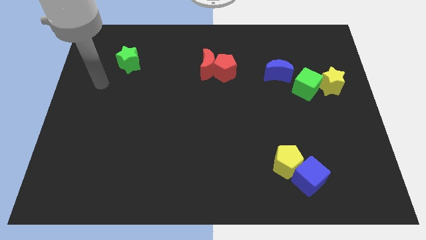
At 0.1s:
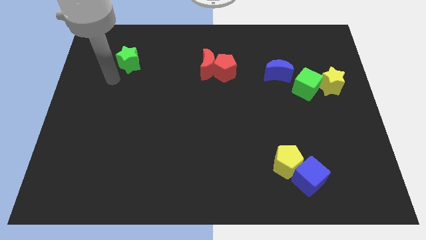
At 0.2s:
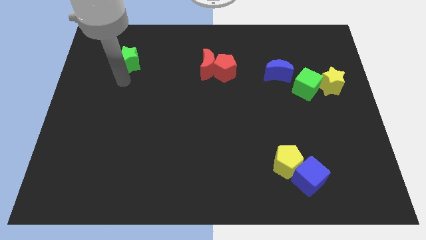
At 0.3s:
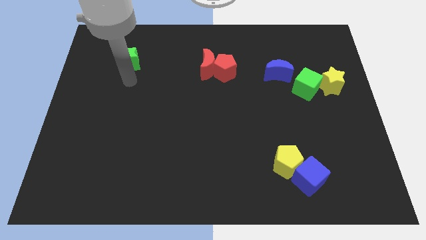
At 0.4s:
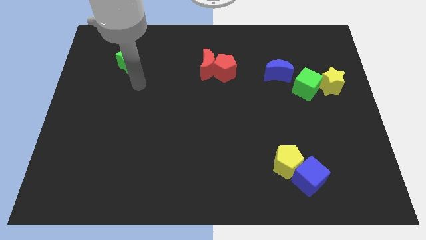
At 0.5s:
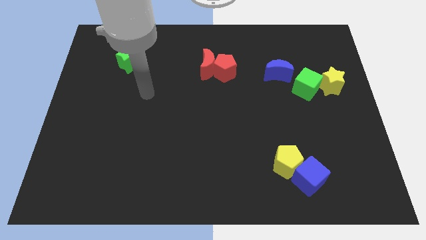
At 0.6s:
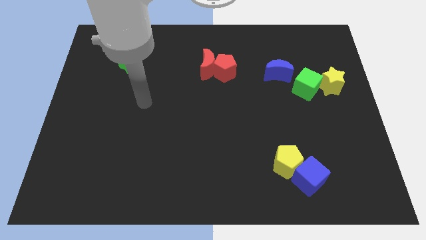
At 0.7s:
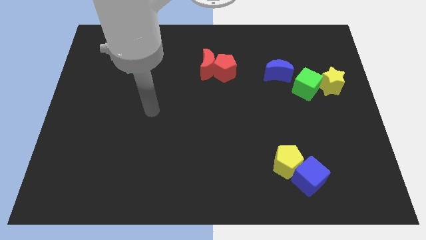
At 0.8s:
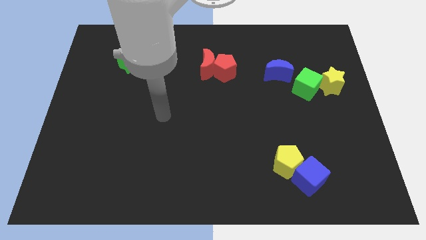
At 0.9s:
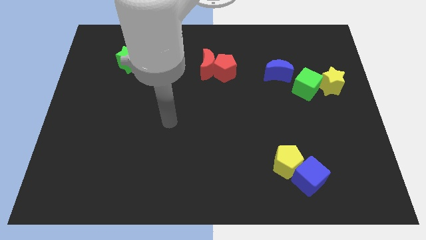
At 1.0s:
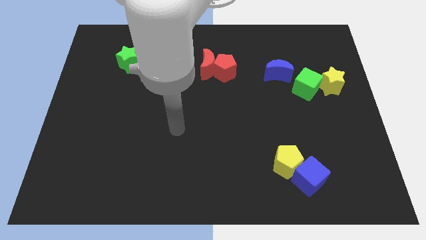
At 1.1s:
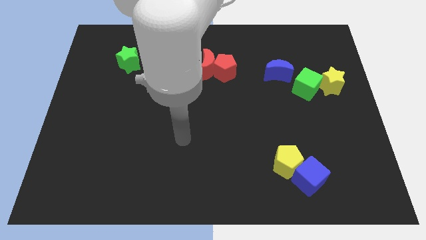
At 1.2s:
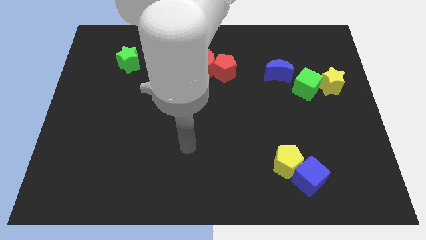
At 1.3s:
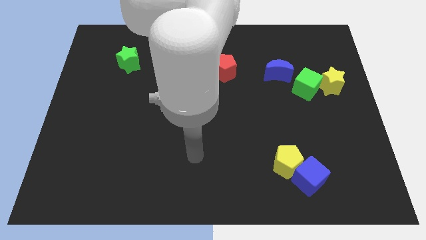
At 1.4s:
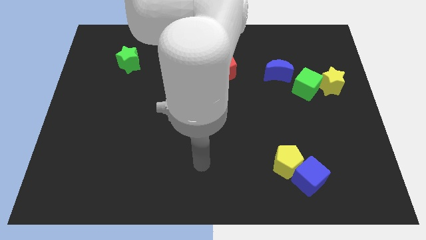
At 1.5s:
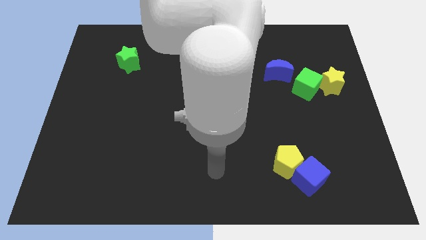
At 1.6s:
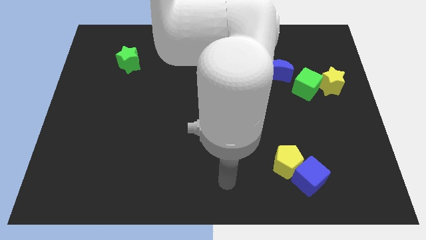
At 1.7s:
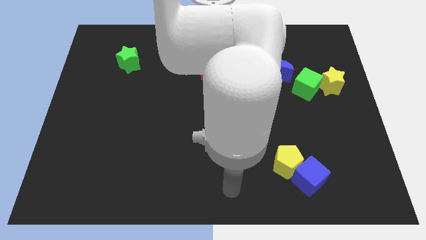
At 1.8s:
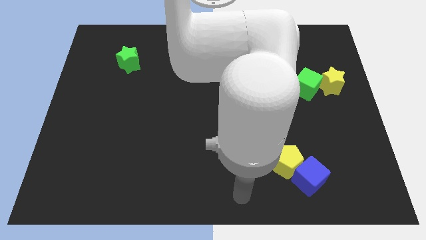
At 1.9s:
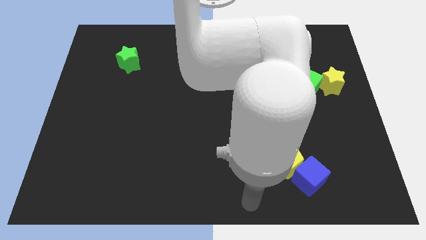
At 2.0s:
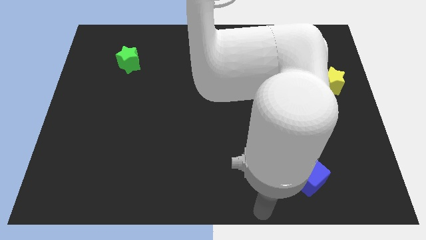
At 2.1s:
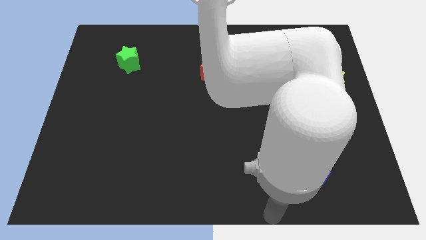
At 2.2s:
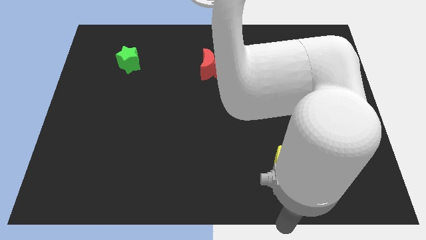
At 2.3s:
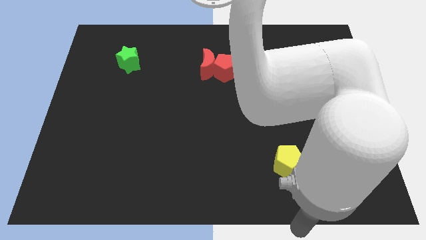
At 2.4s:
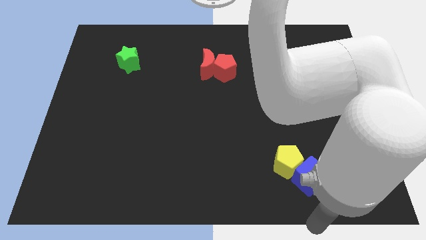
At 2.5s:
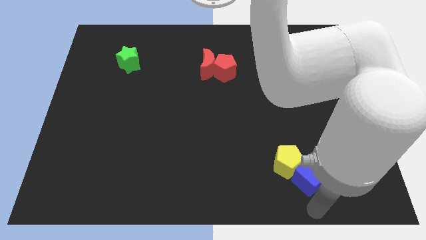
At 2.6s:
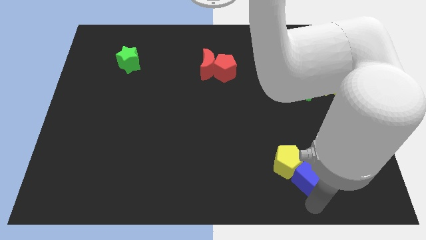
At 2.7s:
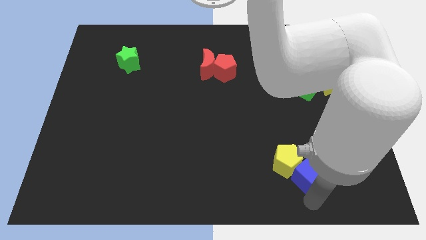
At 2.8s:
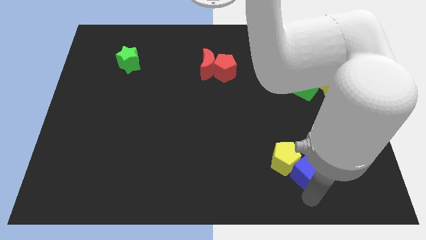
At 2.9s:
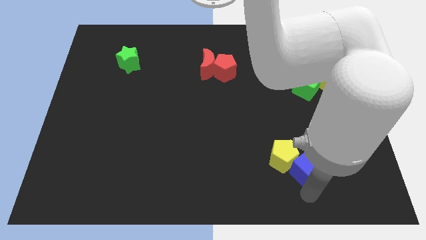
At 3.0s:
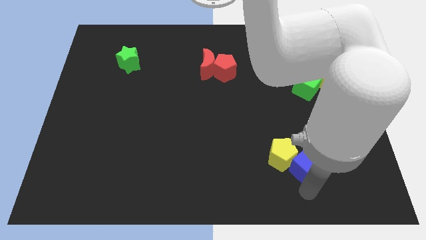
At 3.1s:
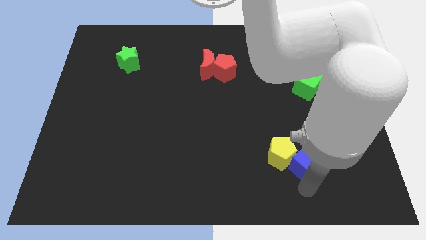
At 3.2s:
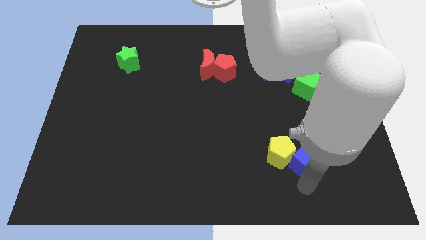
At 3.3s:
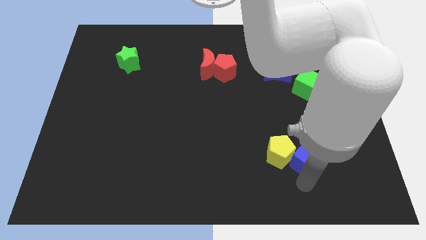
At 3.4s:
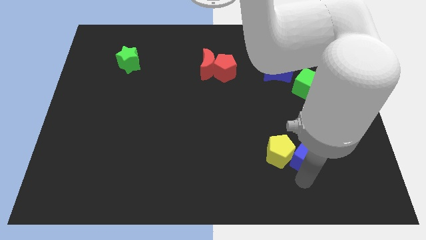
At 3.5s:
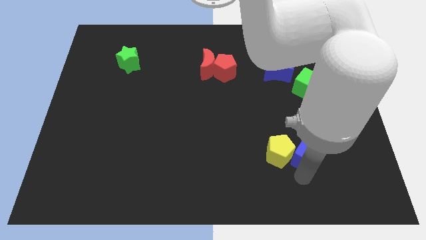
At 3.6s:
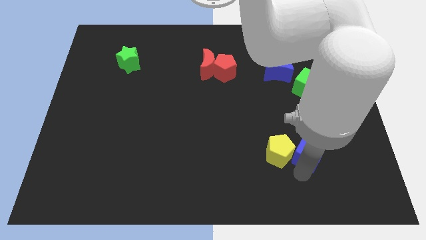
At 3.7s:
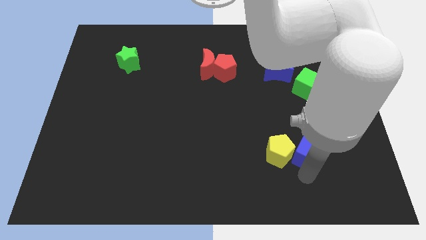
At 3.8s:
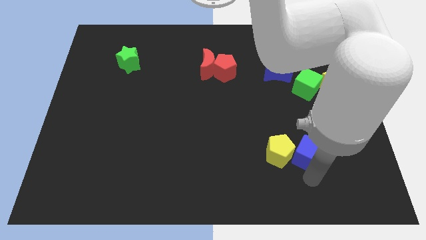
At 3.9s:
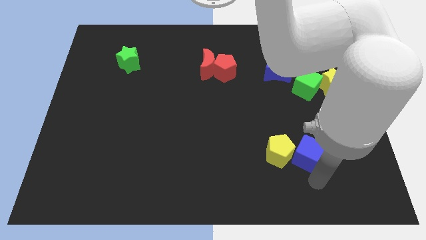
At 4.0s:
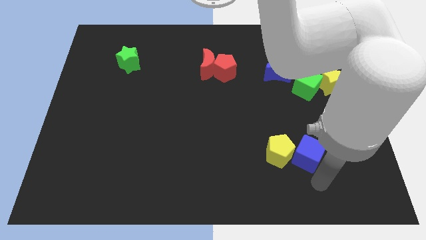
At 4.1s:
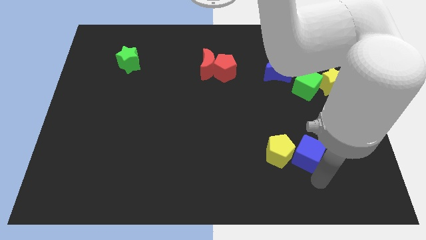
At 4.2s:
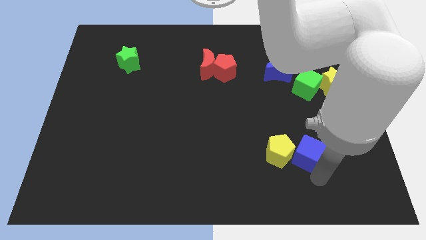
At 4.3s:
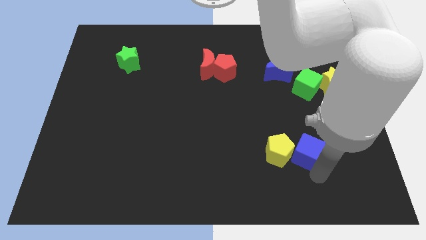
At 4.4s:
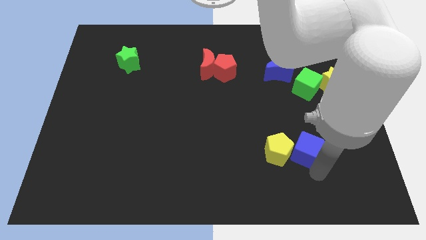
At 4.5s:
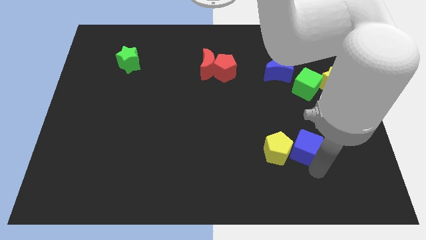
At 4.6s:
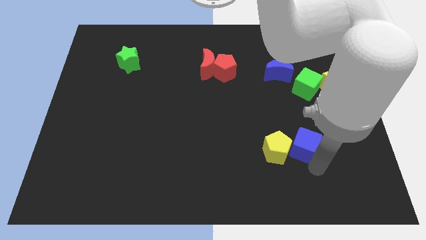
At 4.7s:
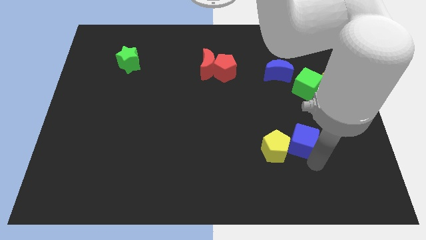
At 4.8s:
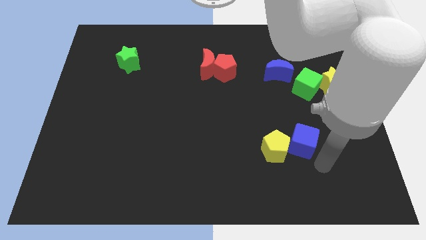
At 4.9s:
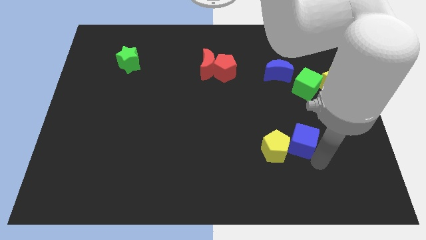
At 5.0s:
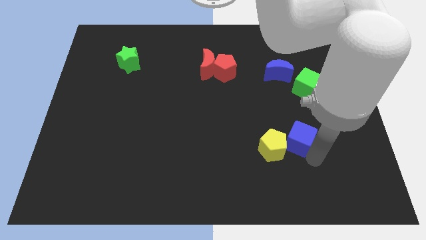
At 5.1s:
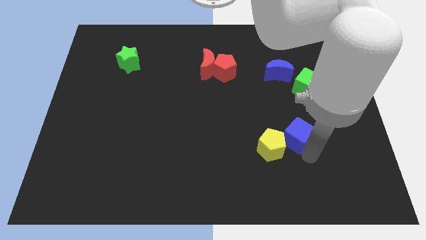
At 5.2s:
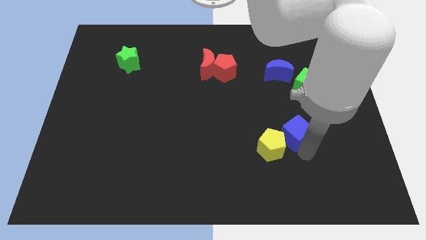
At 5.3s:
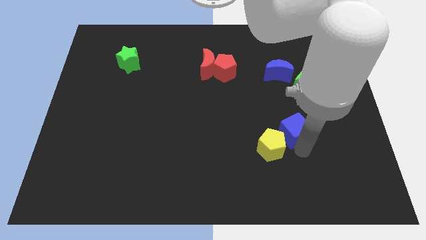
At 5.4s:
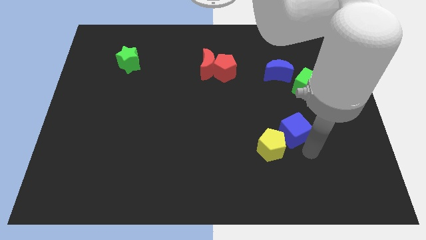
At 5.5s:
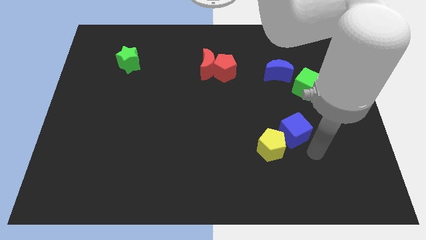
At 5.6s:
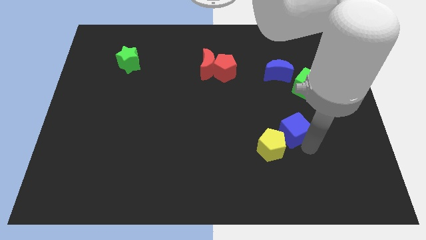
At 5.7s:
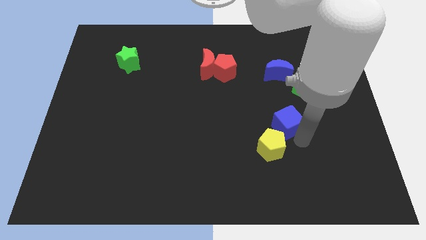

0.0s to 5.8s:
move the blue cube to the top side of the yellow pentagon

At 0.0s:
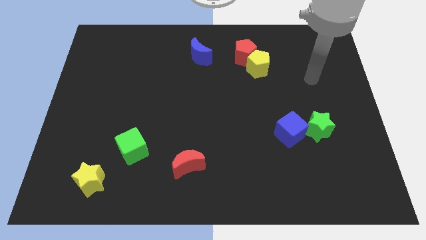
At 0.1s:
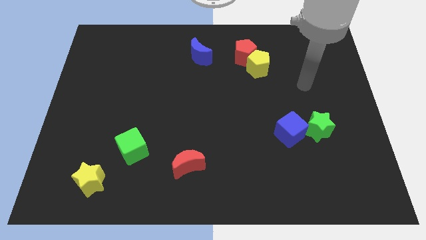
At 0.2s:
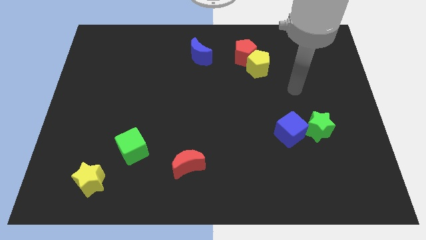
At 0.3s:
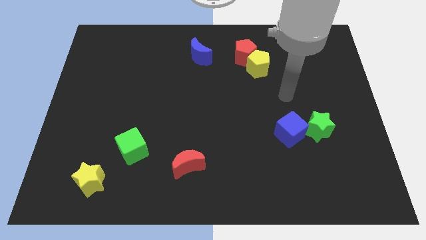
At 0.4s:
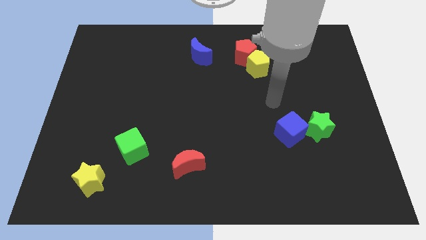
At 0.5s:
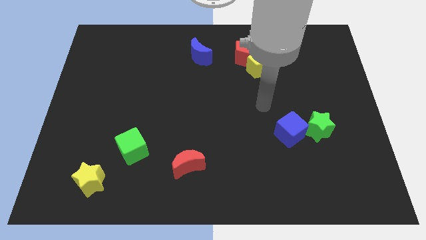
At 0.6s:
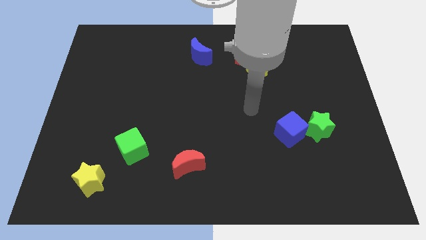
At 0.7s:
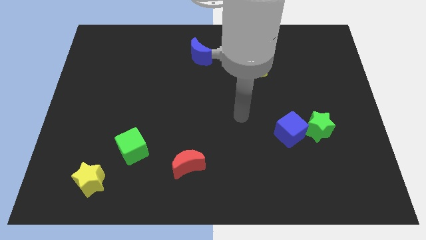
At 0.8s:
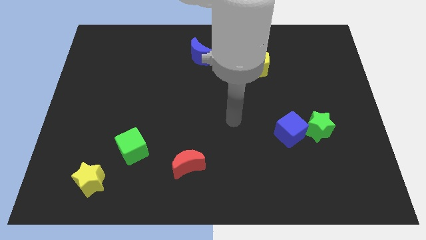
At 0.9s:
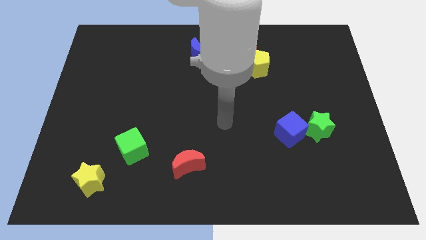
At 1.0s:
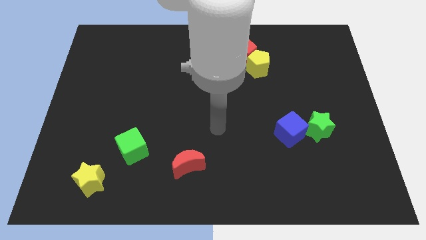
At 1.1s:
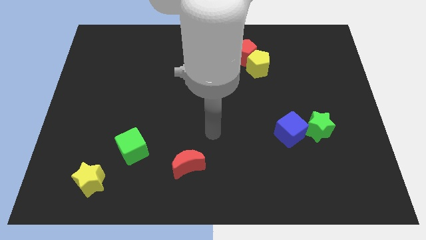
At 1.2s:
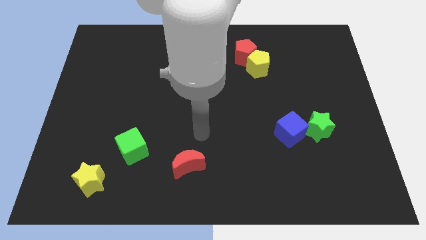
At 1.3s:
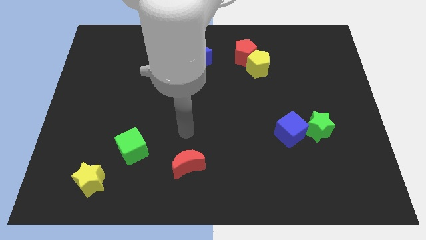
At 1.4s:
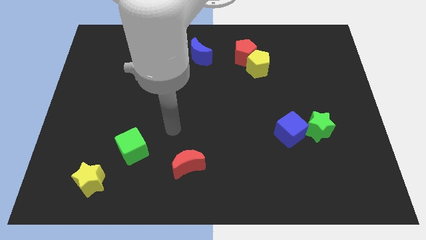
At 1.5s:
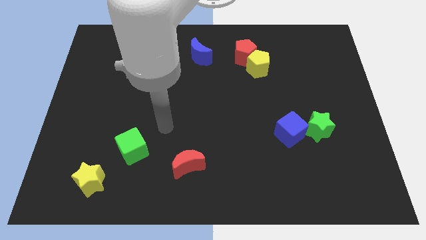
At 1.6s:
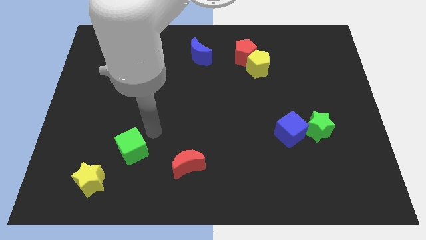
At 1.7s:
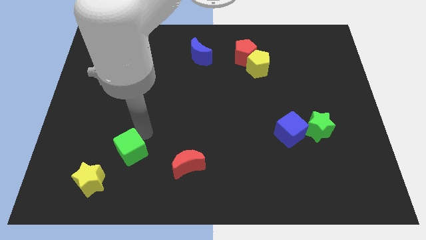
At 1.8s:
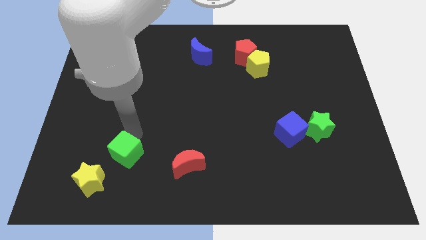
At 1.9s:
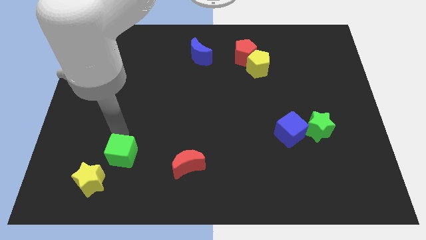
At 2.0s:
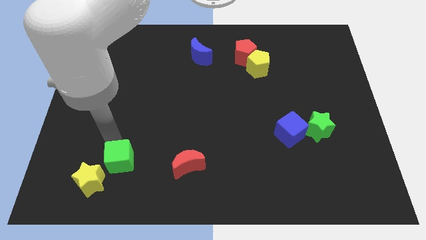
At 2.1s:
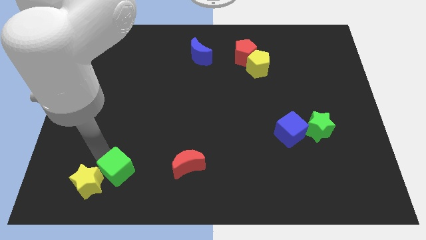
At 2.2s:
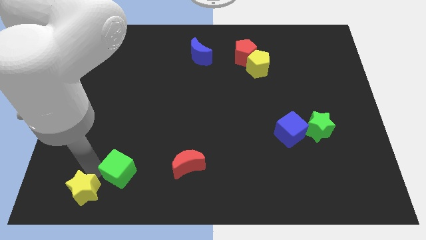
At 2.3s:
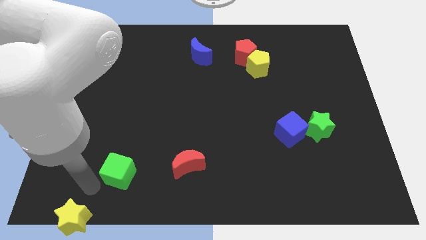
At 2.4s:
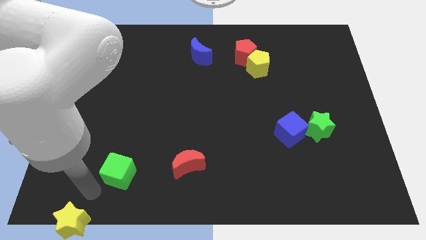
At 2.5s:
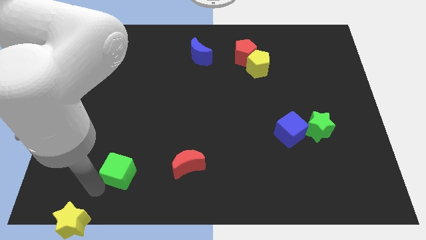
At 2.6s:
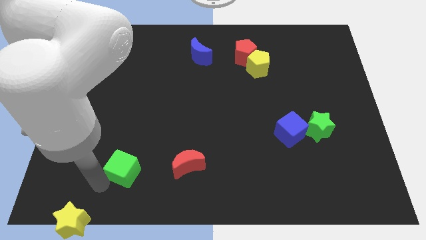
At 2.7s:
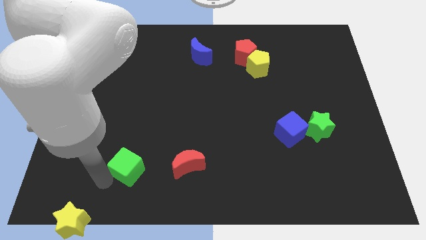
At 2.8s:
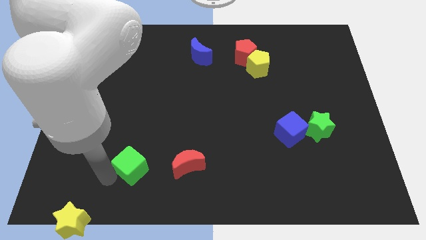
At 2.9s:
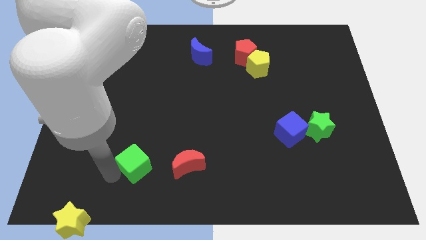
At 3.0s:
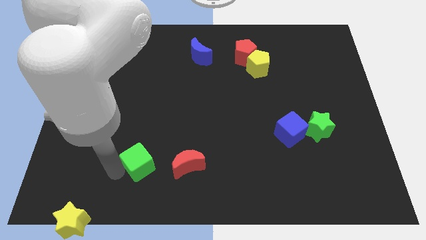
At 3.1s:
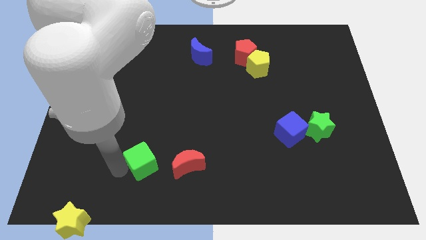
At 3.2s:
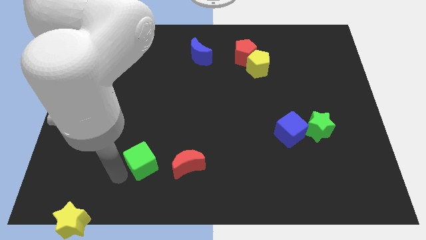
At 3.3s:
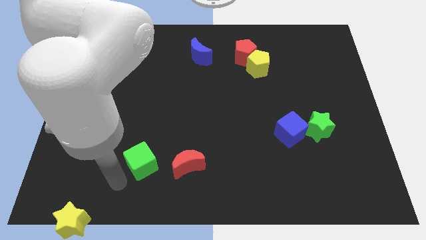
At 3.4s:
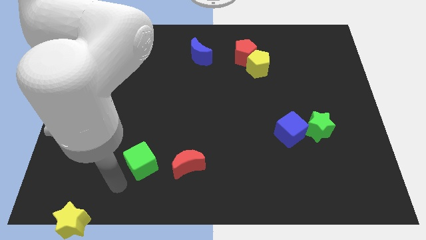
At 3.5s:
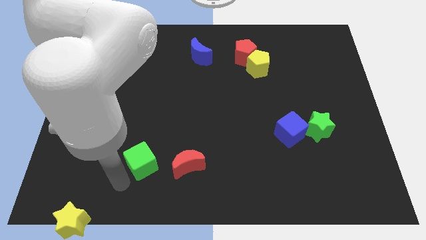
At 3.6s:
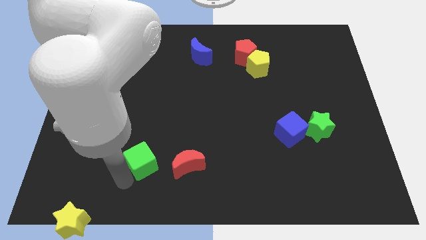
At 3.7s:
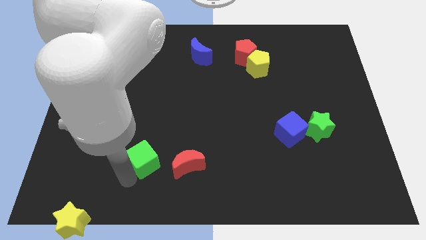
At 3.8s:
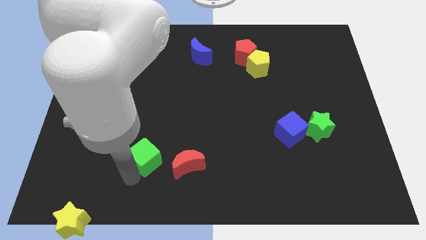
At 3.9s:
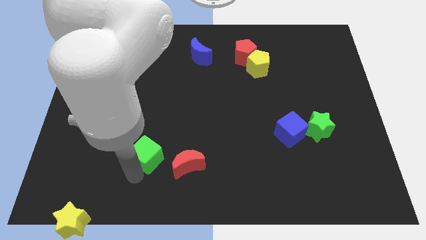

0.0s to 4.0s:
put the green cube diagonally up and to the left of the red moon
